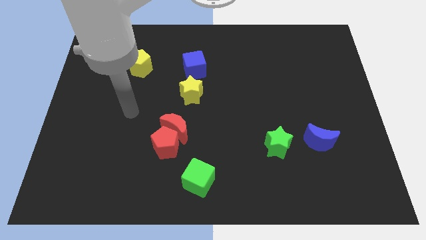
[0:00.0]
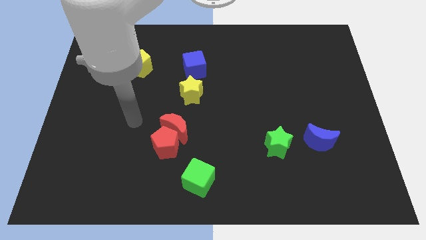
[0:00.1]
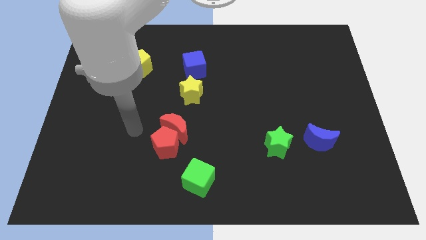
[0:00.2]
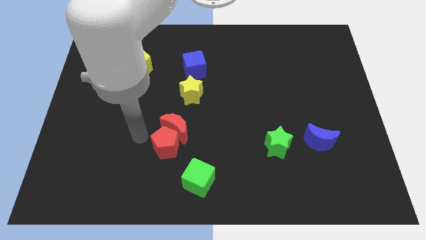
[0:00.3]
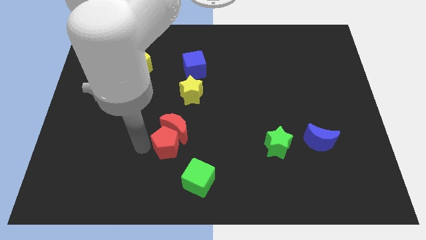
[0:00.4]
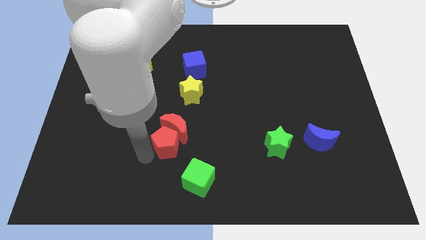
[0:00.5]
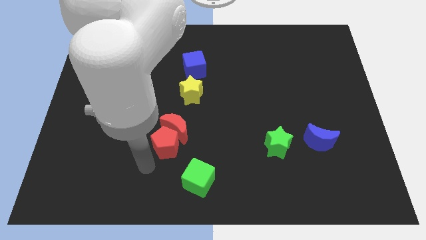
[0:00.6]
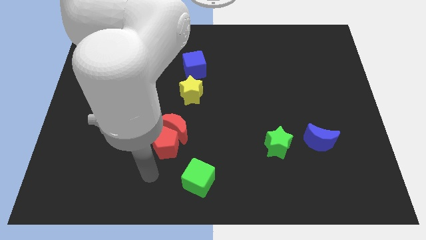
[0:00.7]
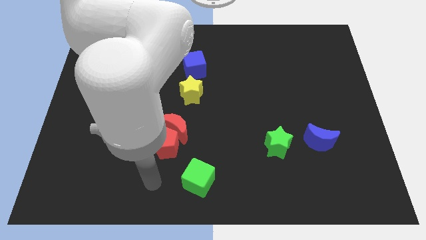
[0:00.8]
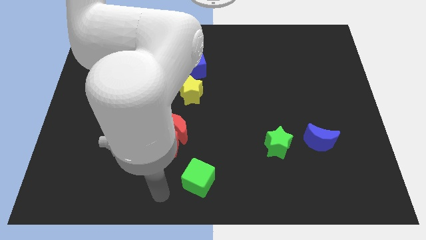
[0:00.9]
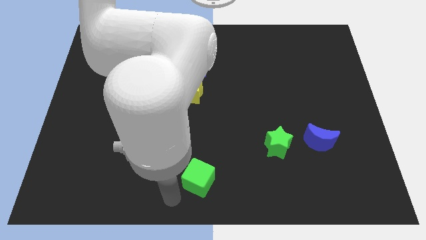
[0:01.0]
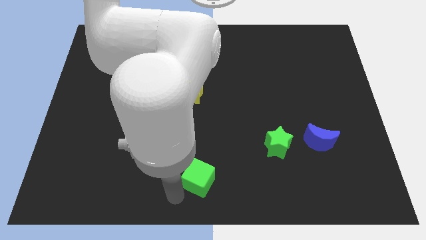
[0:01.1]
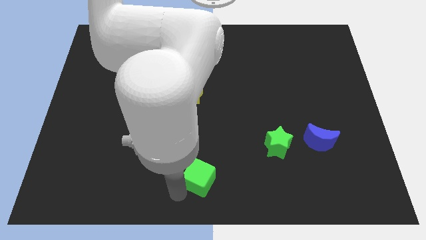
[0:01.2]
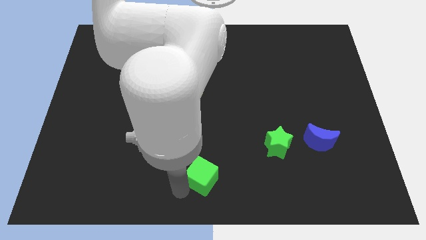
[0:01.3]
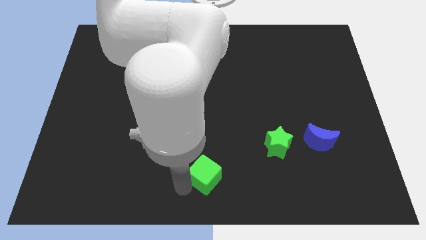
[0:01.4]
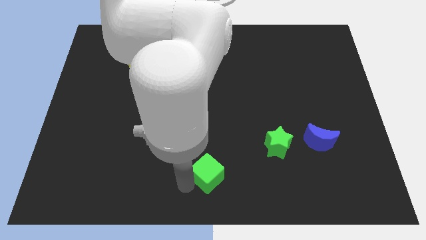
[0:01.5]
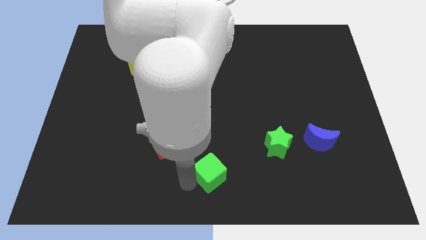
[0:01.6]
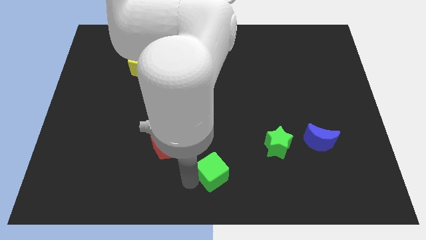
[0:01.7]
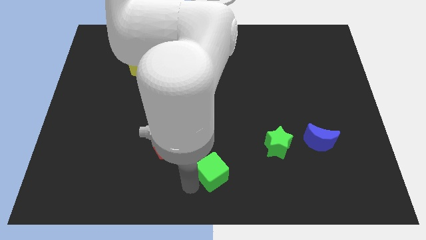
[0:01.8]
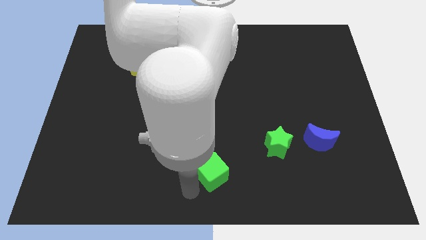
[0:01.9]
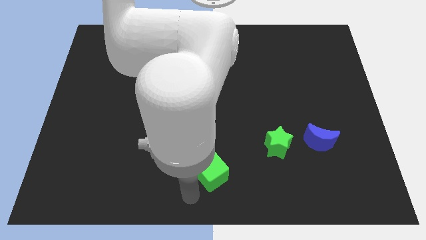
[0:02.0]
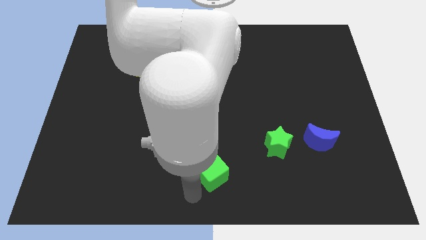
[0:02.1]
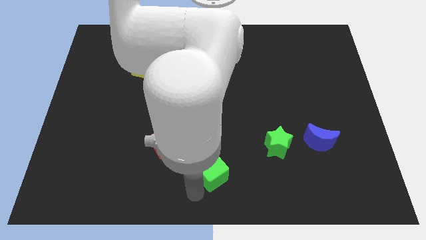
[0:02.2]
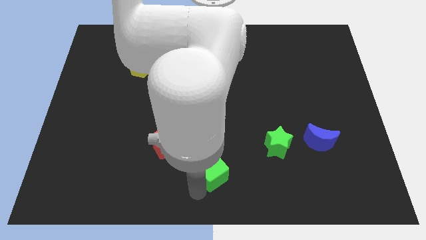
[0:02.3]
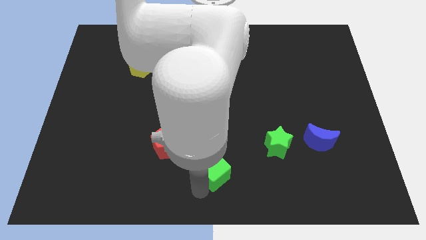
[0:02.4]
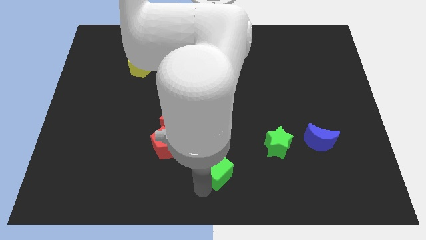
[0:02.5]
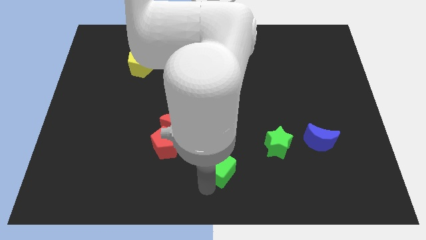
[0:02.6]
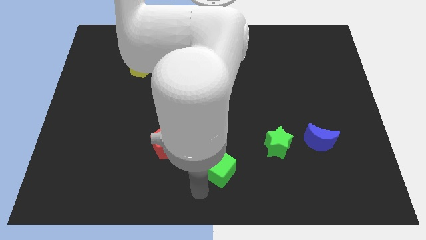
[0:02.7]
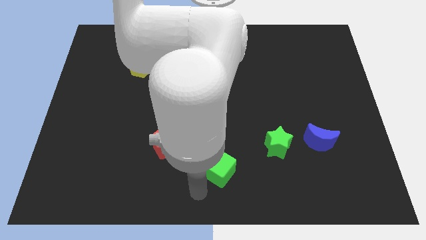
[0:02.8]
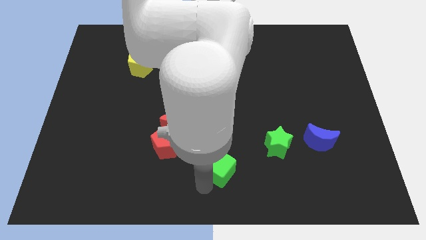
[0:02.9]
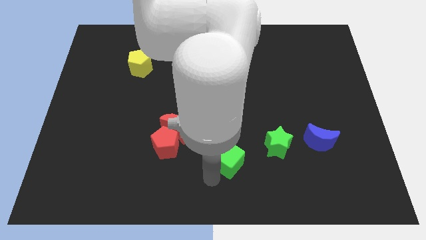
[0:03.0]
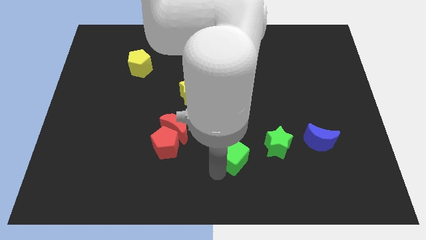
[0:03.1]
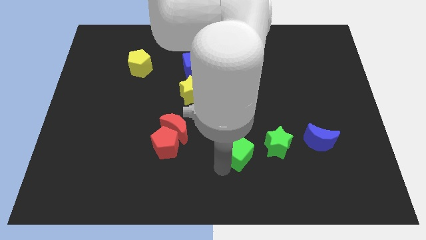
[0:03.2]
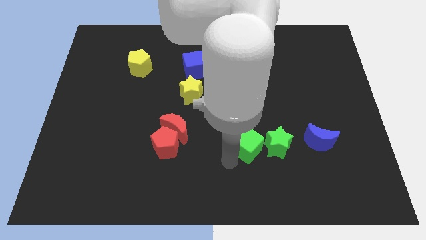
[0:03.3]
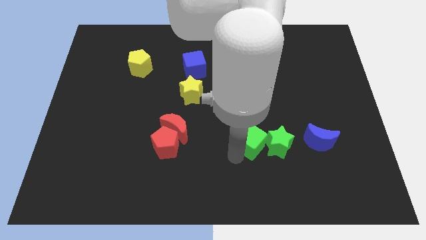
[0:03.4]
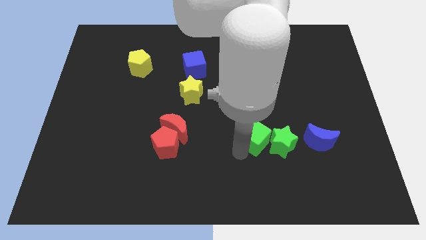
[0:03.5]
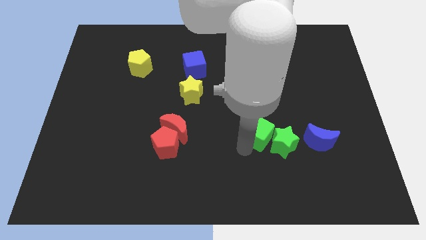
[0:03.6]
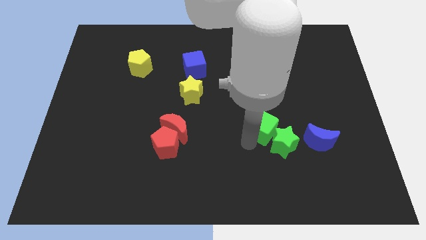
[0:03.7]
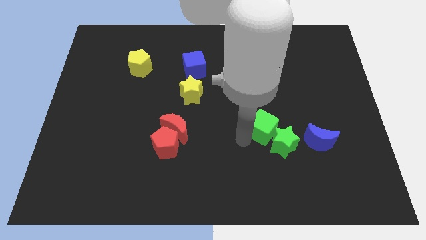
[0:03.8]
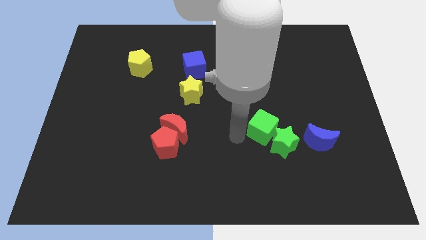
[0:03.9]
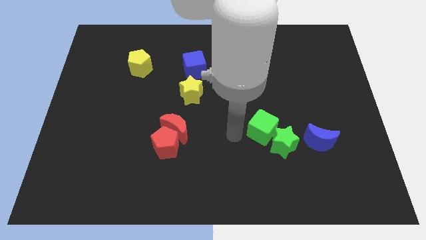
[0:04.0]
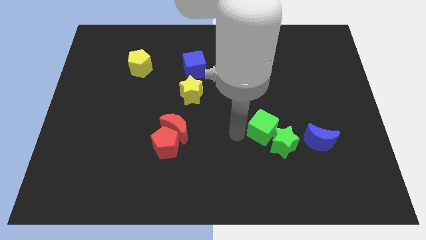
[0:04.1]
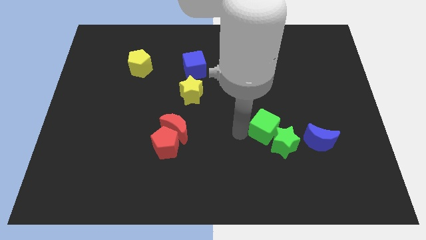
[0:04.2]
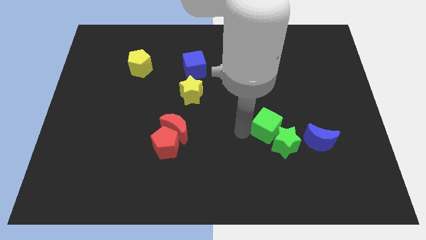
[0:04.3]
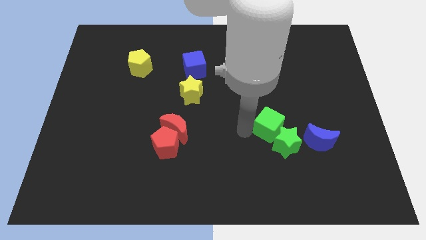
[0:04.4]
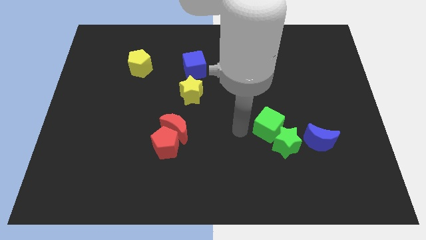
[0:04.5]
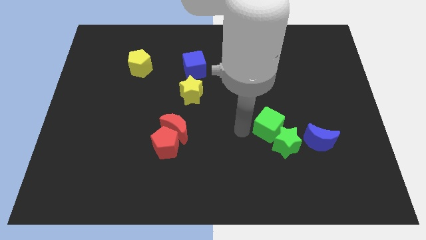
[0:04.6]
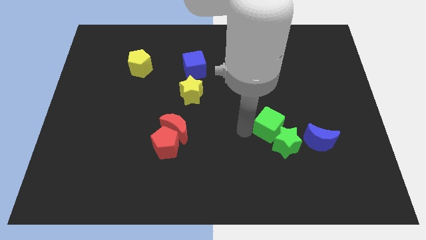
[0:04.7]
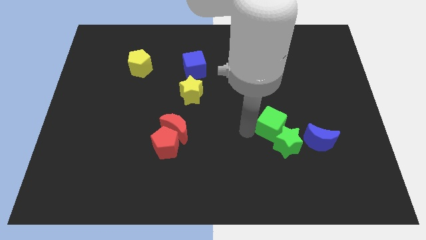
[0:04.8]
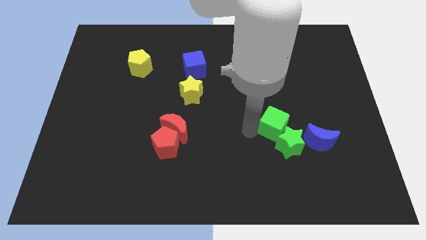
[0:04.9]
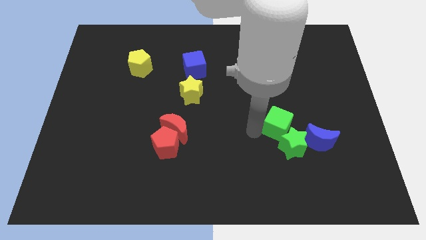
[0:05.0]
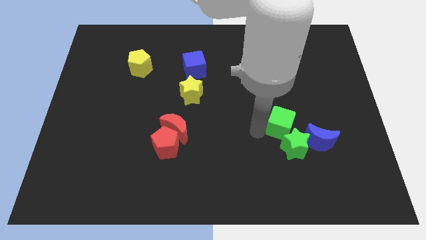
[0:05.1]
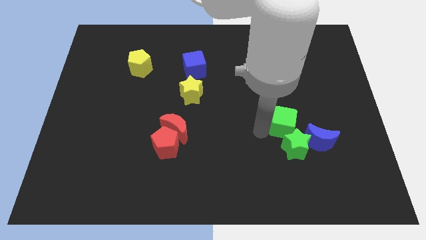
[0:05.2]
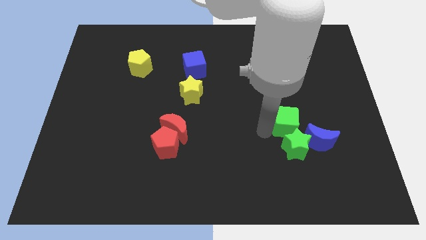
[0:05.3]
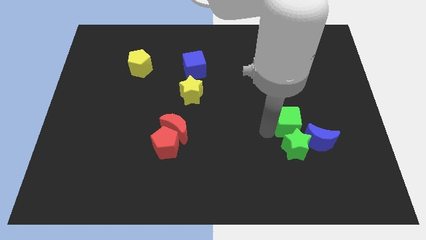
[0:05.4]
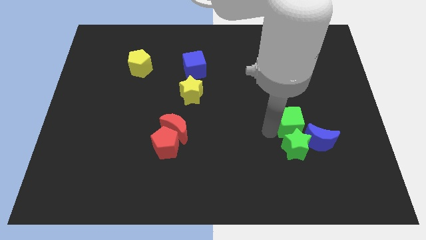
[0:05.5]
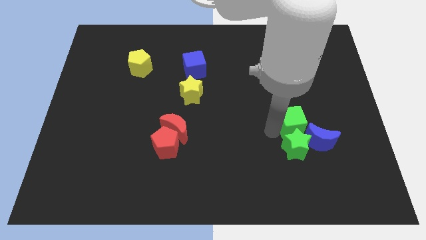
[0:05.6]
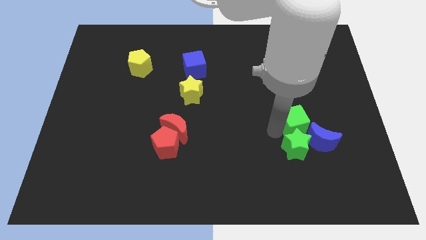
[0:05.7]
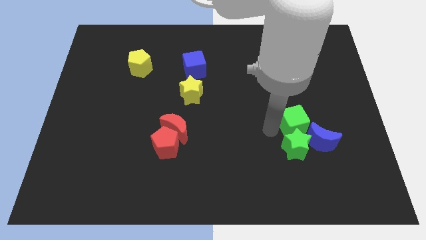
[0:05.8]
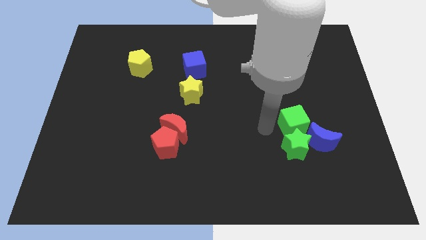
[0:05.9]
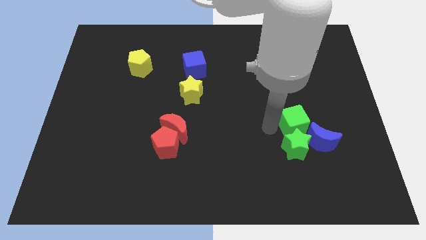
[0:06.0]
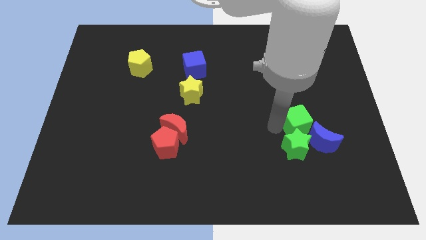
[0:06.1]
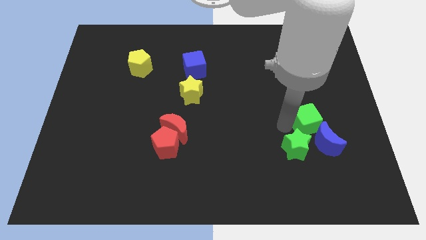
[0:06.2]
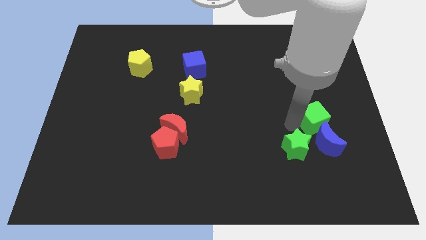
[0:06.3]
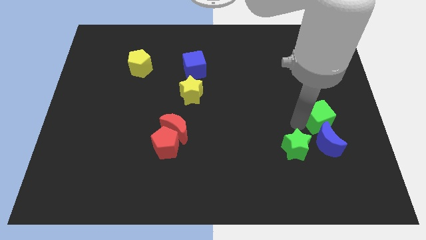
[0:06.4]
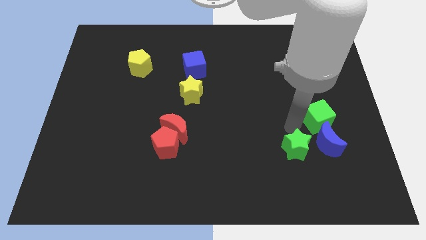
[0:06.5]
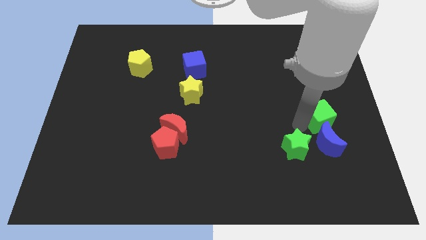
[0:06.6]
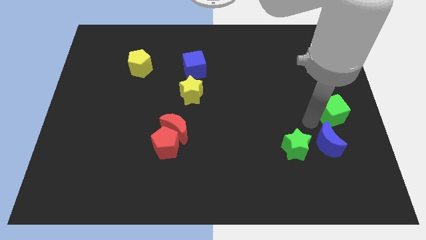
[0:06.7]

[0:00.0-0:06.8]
put the green cube to the center right
